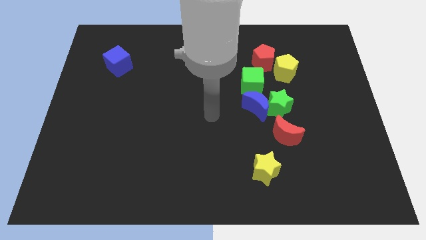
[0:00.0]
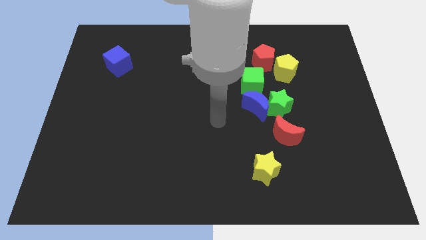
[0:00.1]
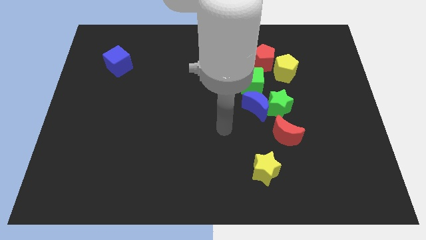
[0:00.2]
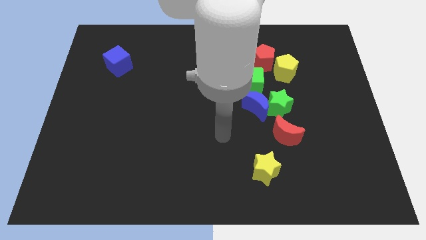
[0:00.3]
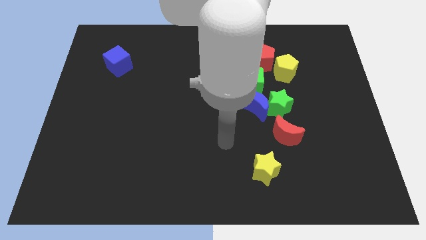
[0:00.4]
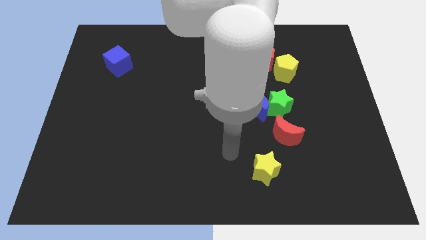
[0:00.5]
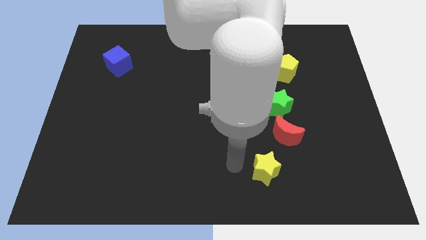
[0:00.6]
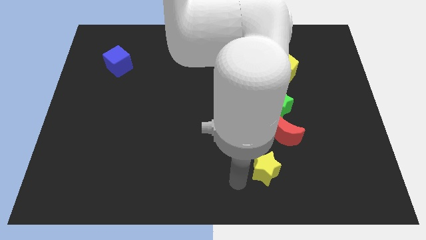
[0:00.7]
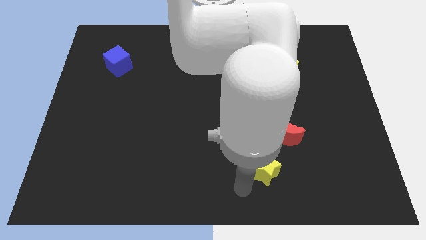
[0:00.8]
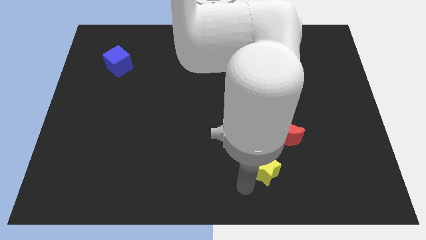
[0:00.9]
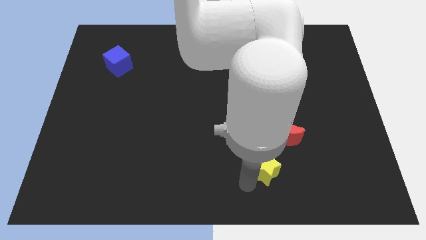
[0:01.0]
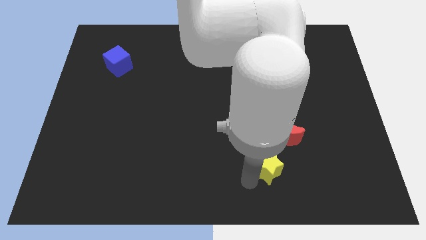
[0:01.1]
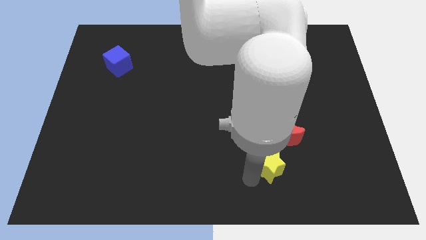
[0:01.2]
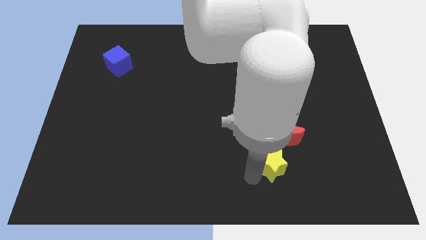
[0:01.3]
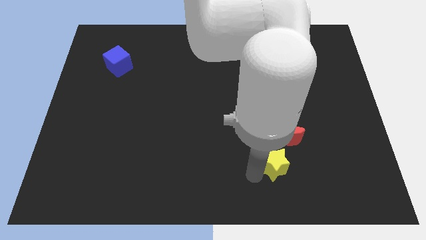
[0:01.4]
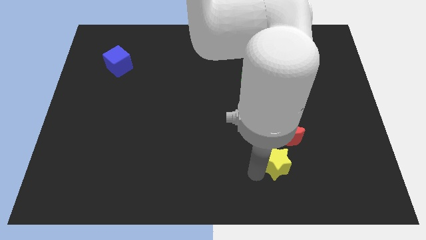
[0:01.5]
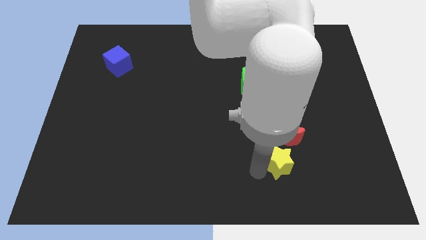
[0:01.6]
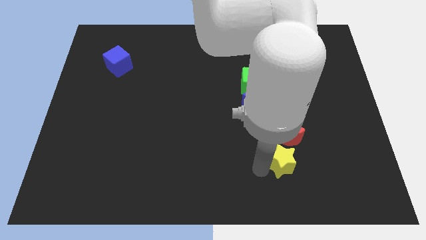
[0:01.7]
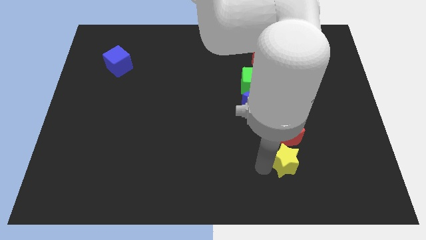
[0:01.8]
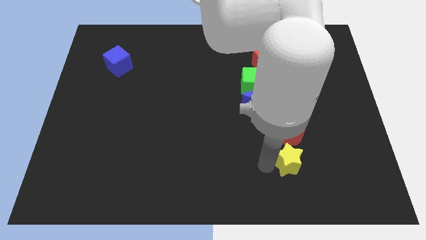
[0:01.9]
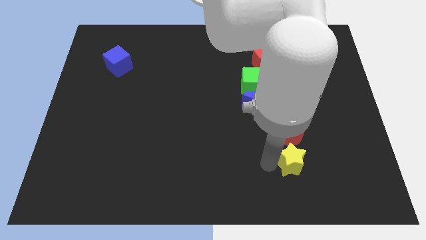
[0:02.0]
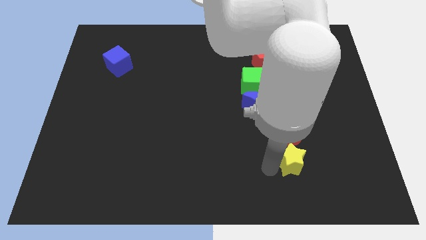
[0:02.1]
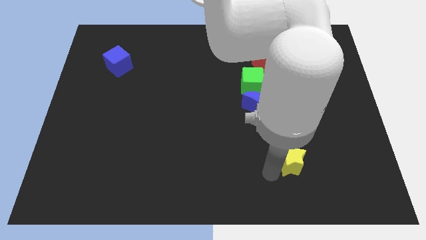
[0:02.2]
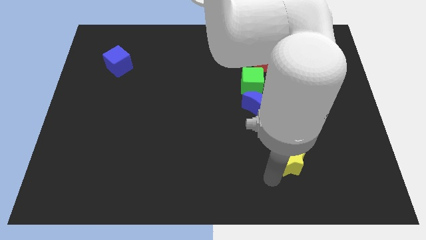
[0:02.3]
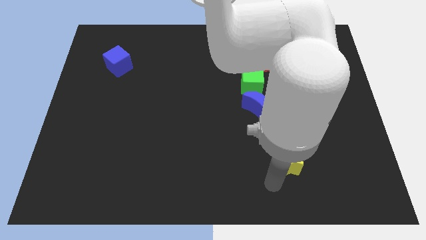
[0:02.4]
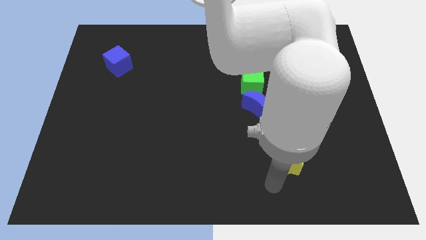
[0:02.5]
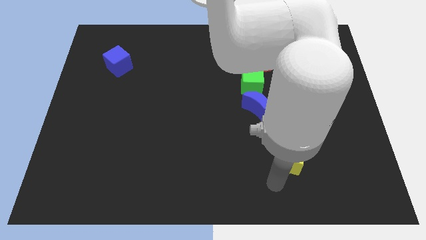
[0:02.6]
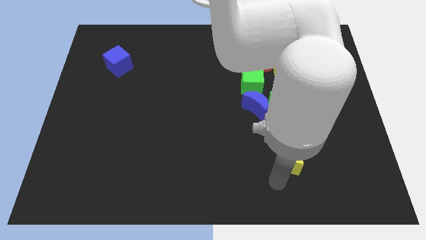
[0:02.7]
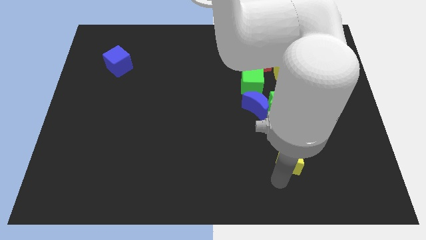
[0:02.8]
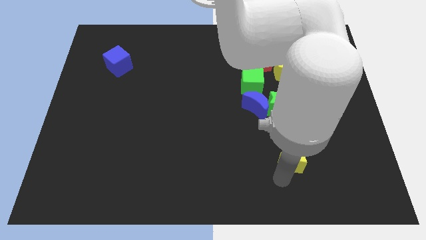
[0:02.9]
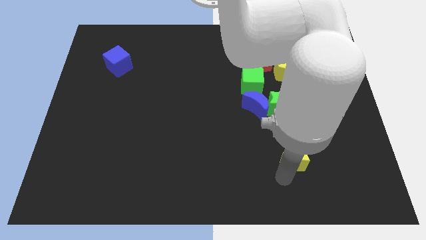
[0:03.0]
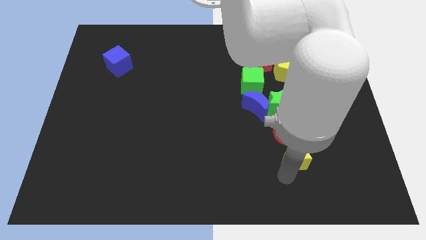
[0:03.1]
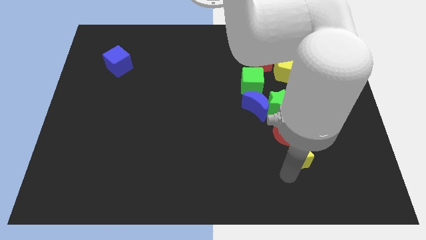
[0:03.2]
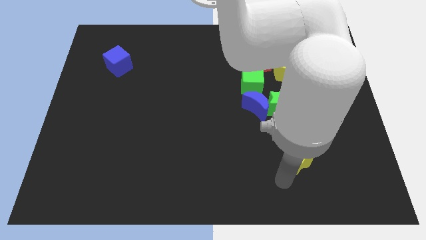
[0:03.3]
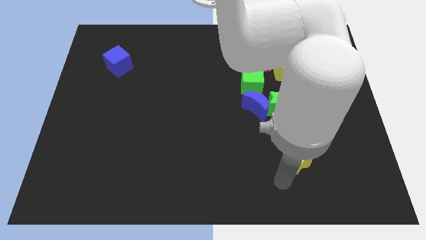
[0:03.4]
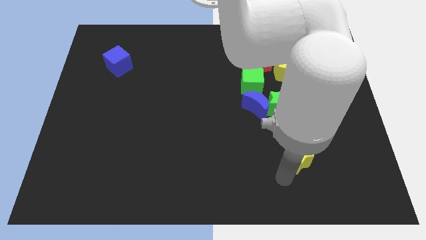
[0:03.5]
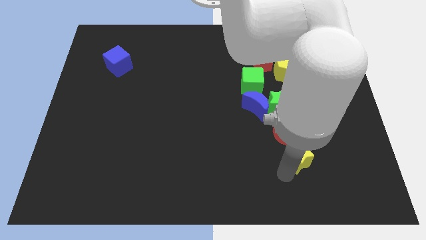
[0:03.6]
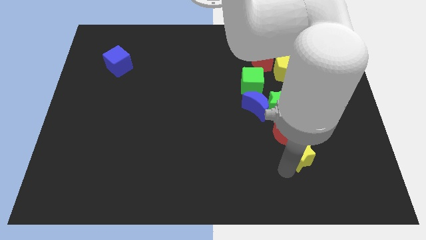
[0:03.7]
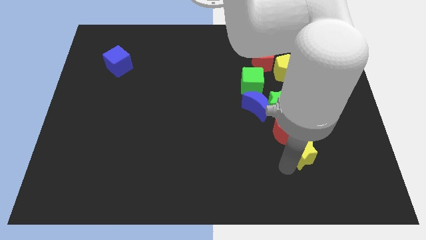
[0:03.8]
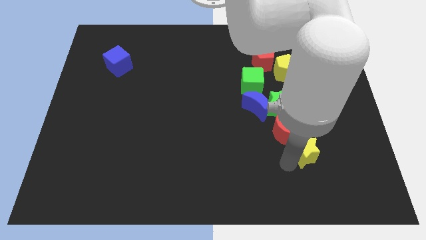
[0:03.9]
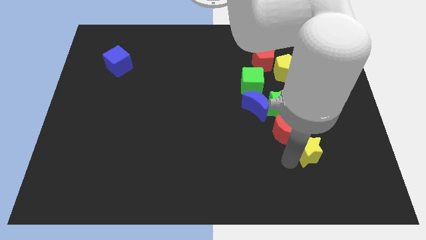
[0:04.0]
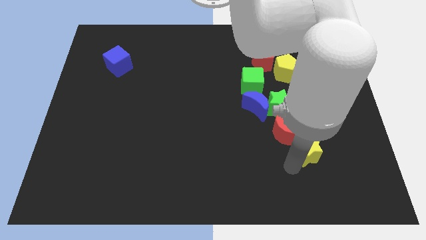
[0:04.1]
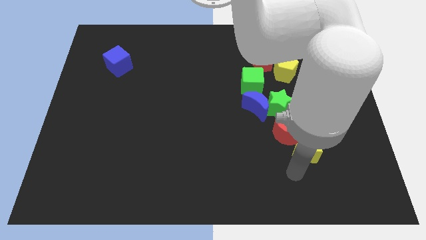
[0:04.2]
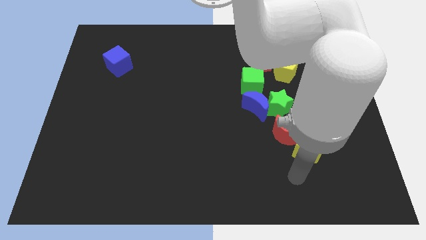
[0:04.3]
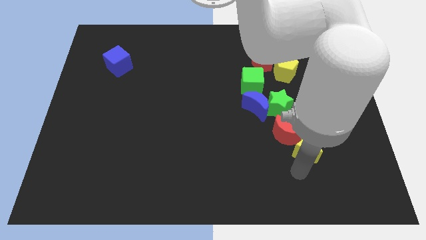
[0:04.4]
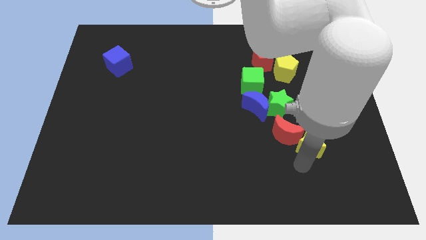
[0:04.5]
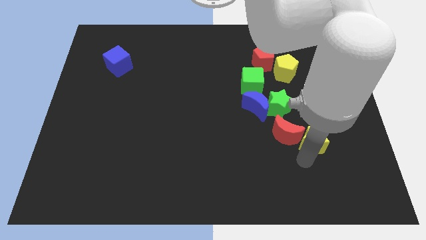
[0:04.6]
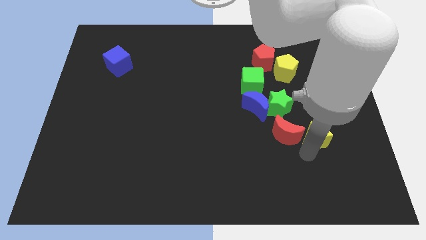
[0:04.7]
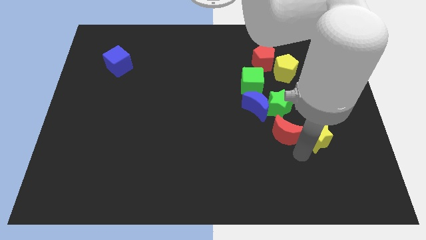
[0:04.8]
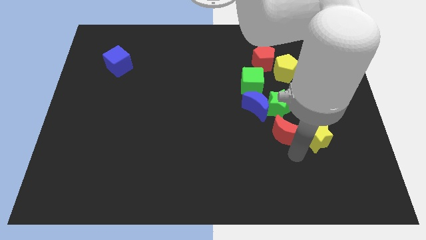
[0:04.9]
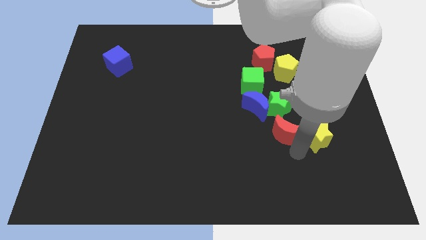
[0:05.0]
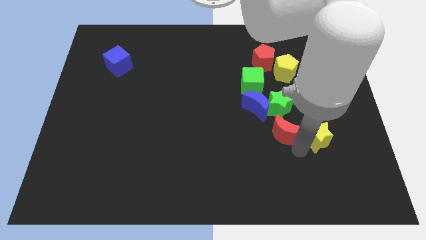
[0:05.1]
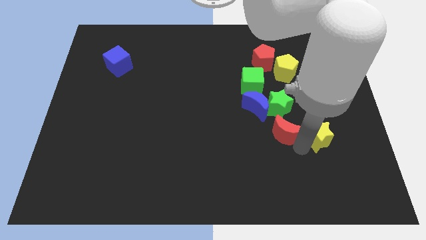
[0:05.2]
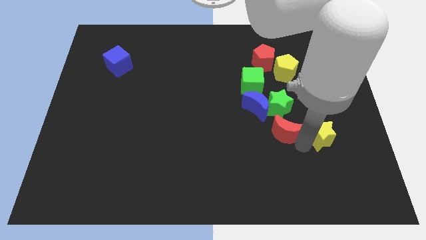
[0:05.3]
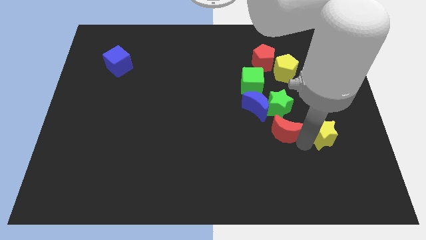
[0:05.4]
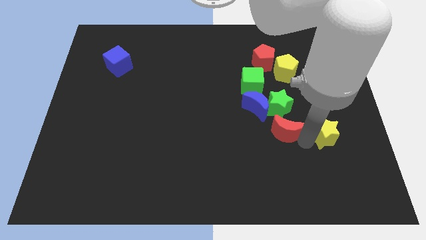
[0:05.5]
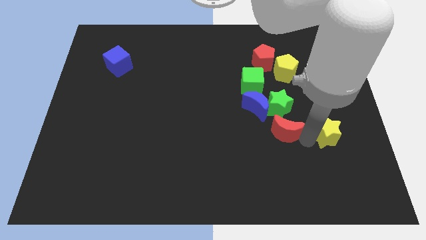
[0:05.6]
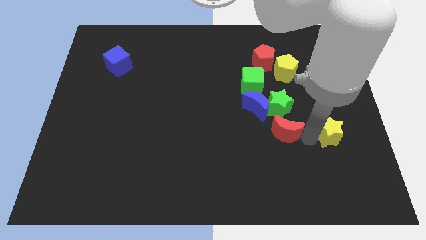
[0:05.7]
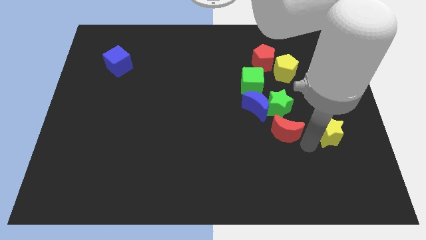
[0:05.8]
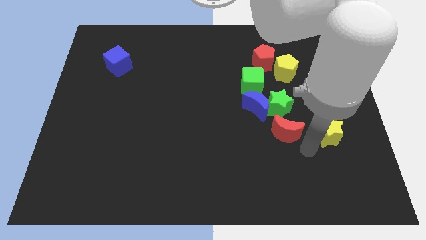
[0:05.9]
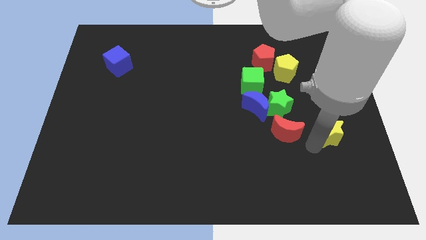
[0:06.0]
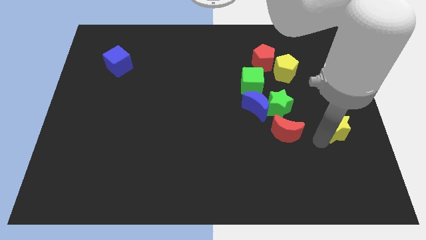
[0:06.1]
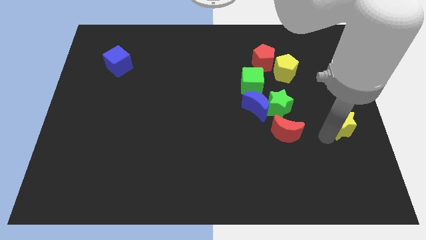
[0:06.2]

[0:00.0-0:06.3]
put the yellow star to the right side

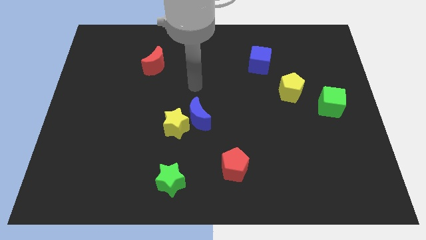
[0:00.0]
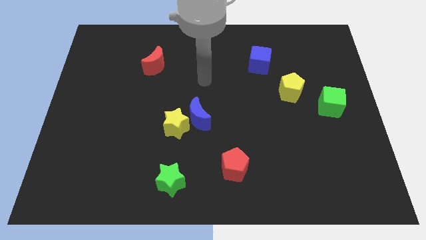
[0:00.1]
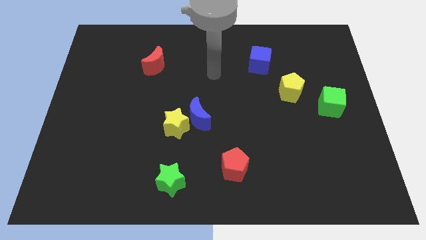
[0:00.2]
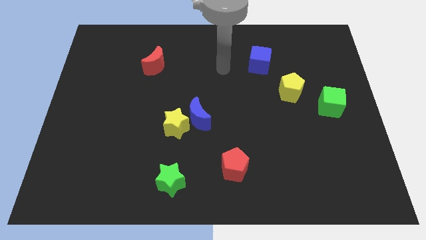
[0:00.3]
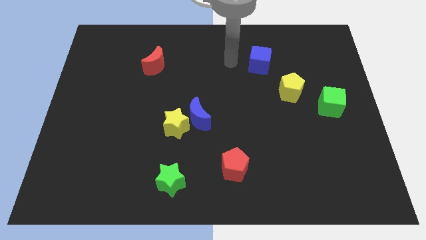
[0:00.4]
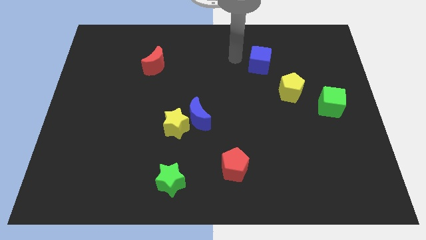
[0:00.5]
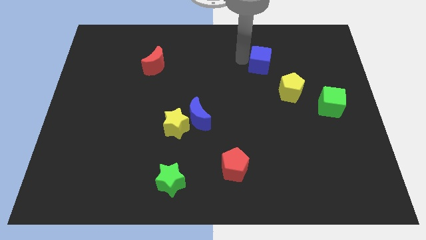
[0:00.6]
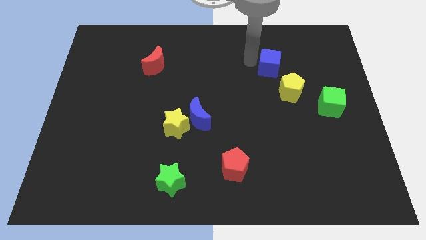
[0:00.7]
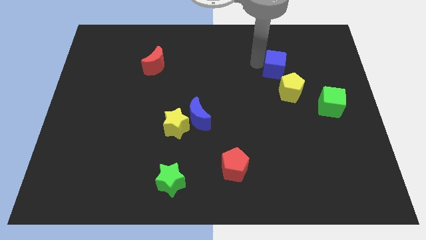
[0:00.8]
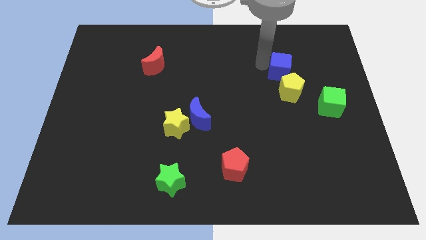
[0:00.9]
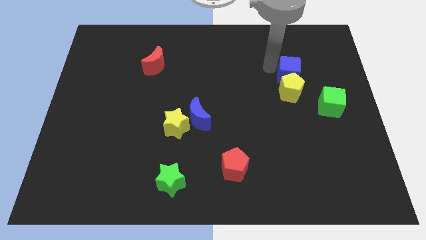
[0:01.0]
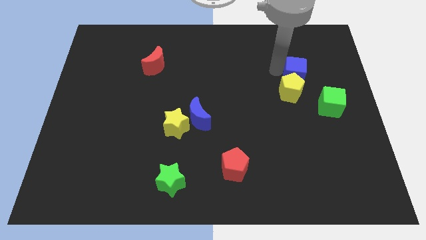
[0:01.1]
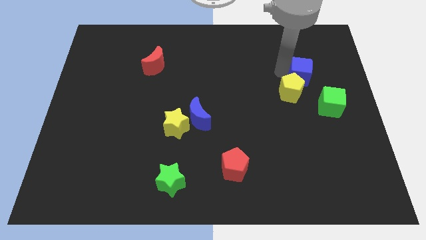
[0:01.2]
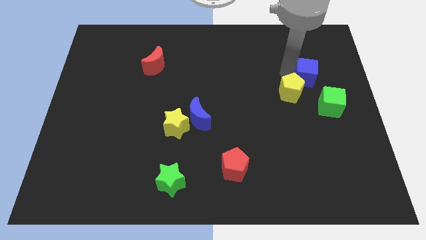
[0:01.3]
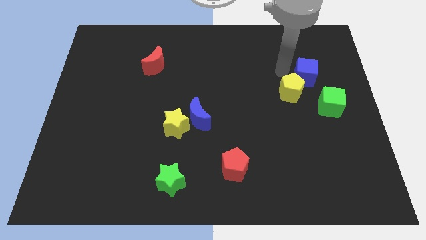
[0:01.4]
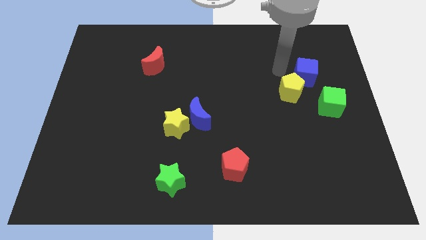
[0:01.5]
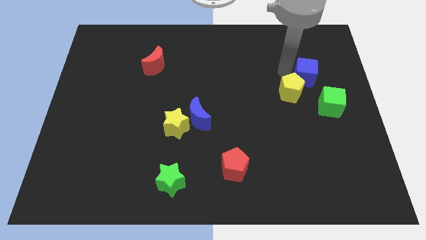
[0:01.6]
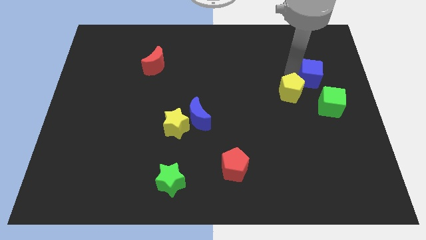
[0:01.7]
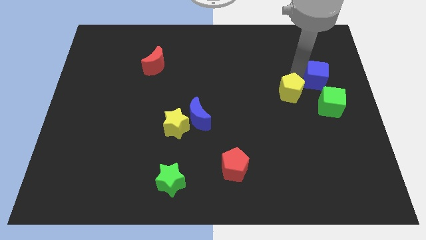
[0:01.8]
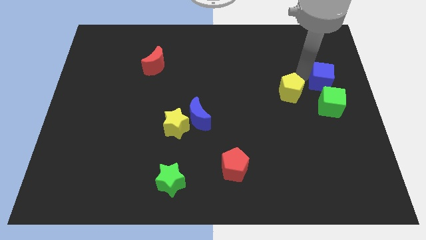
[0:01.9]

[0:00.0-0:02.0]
slide the blue cube to the center right
